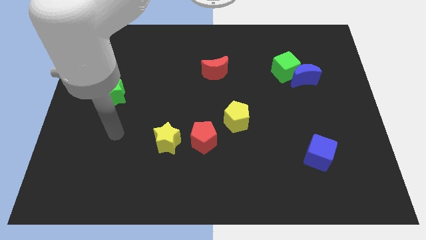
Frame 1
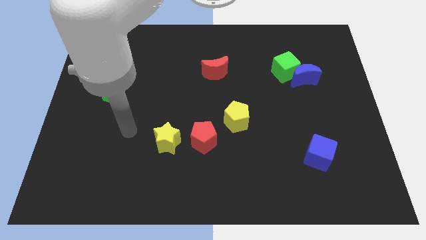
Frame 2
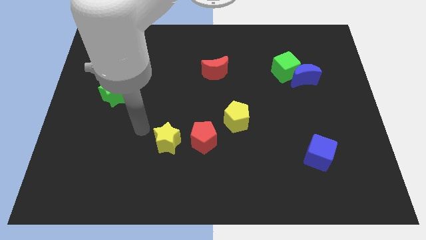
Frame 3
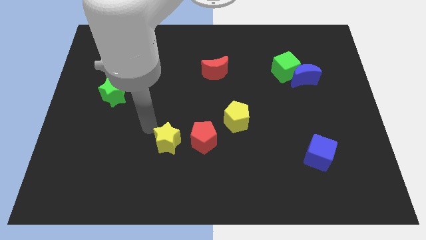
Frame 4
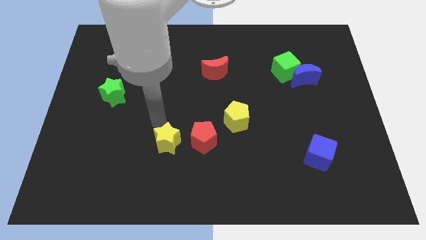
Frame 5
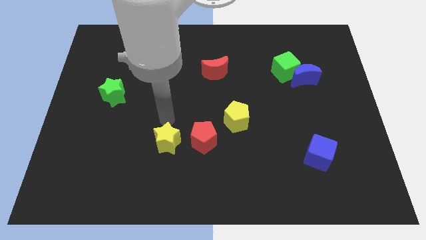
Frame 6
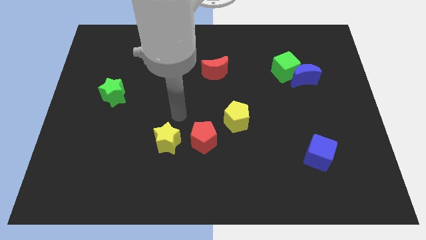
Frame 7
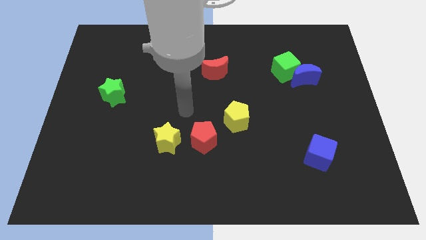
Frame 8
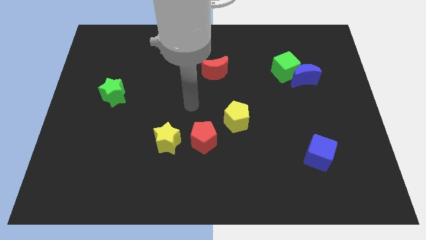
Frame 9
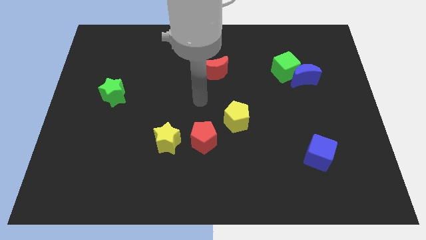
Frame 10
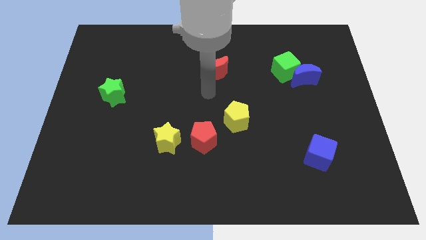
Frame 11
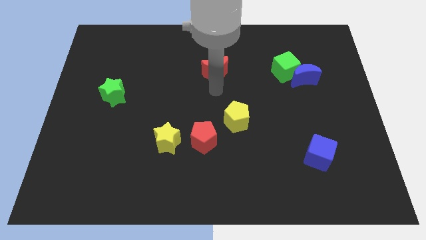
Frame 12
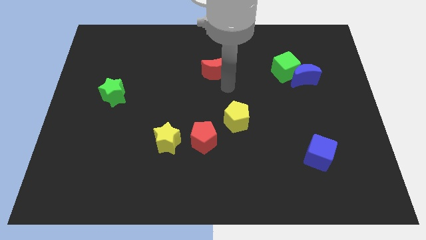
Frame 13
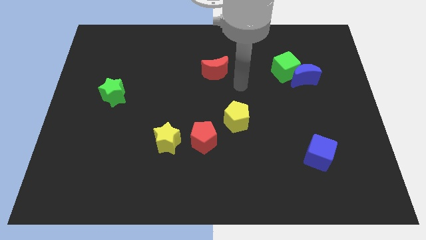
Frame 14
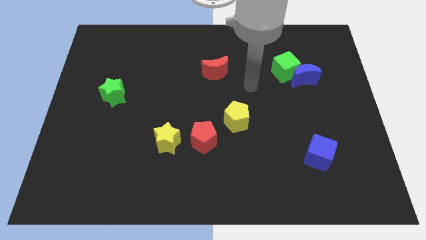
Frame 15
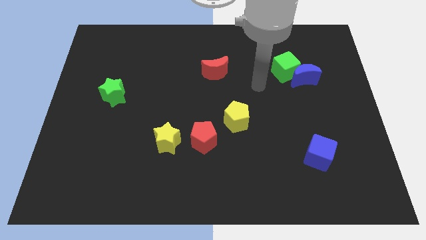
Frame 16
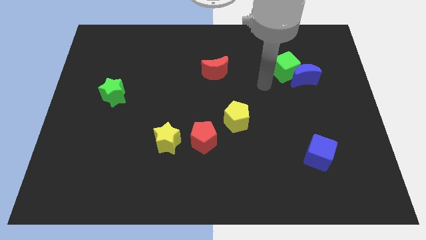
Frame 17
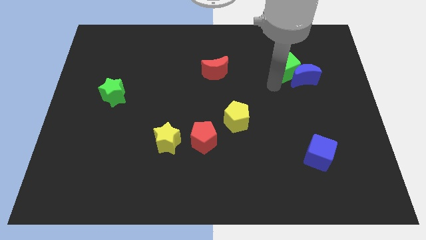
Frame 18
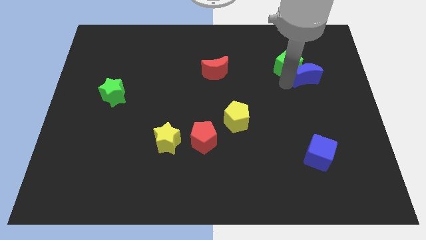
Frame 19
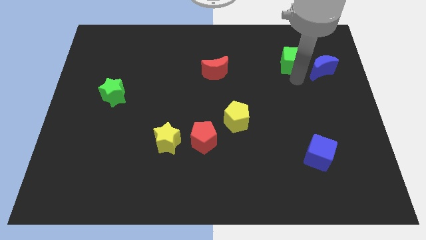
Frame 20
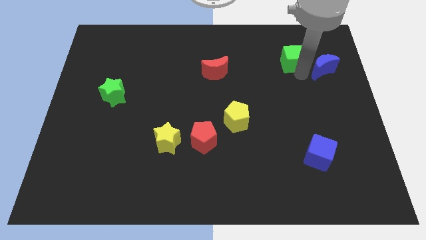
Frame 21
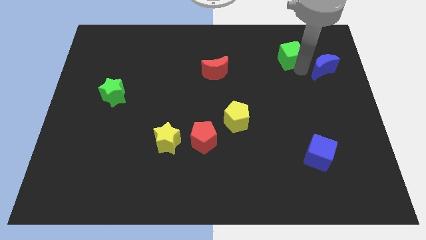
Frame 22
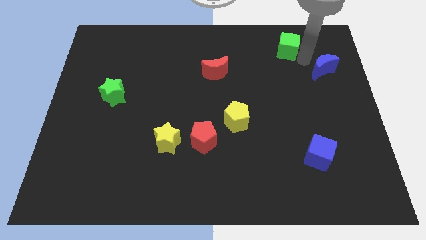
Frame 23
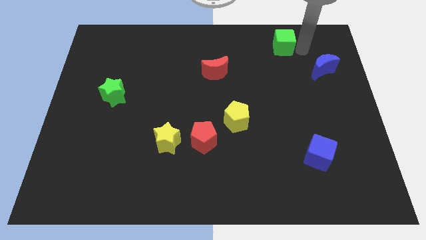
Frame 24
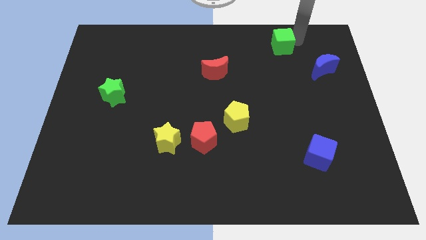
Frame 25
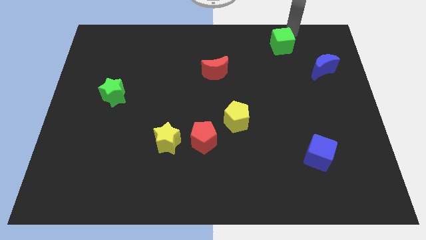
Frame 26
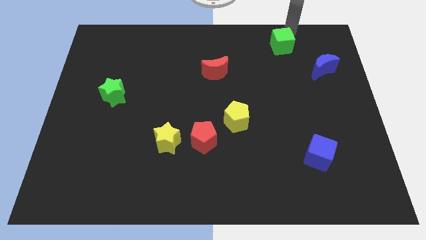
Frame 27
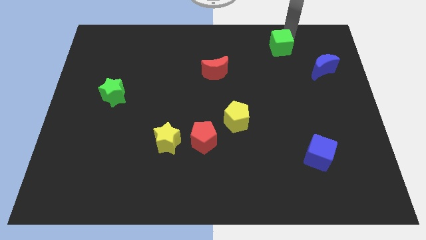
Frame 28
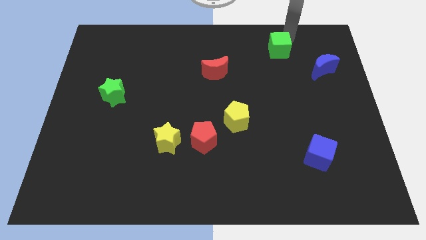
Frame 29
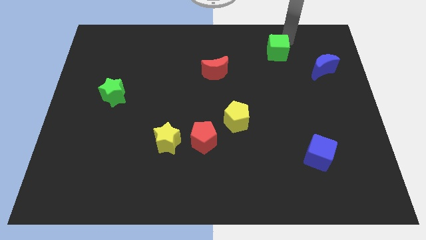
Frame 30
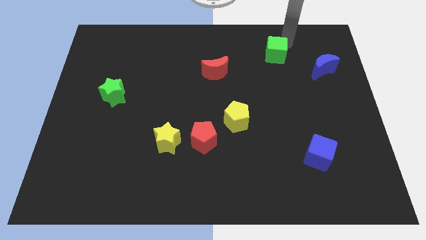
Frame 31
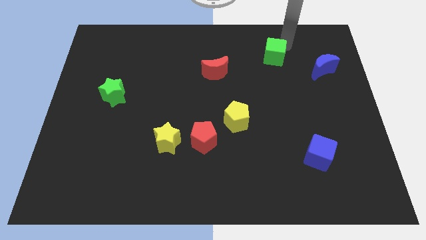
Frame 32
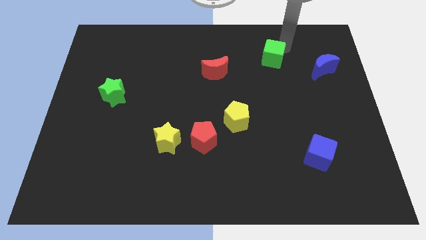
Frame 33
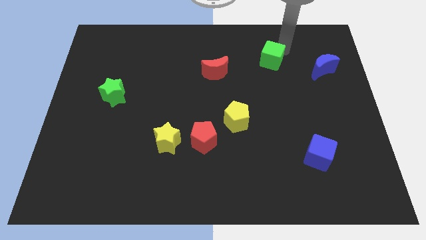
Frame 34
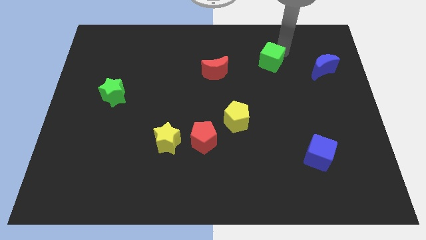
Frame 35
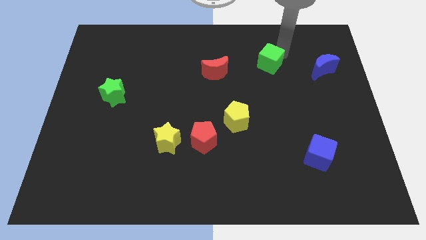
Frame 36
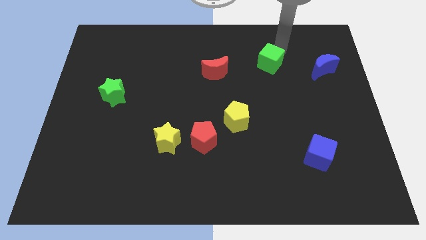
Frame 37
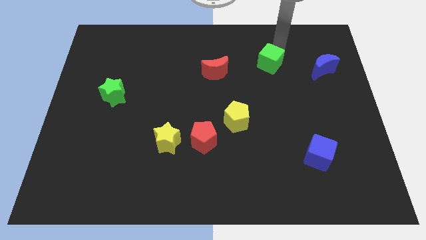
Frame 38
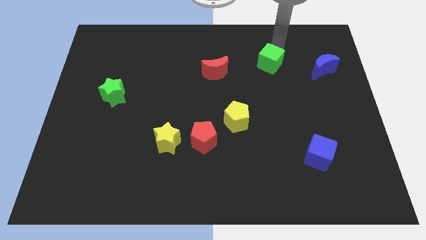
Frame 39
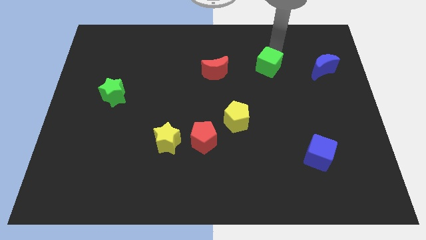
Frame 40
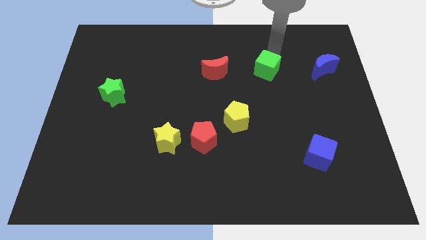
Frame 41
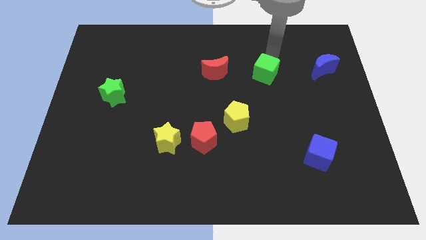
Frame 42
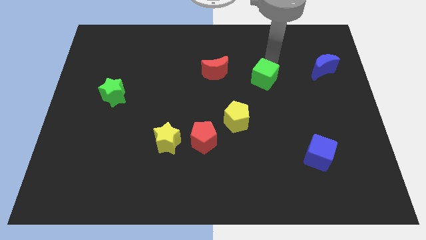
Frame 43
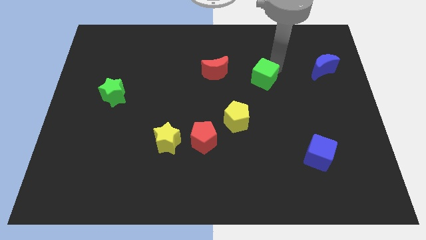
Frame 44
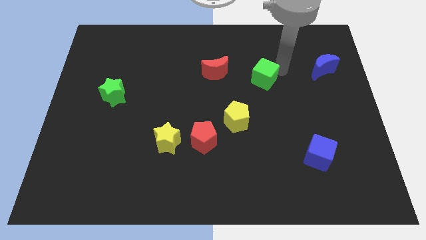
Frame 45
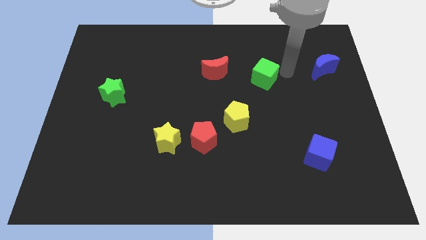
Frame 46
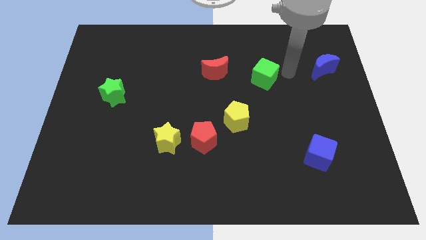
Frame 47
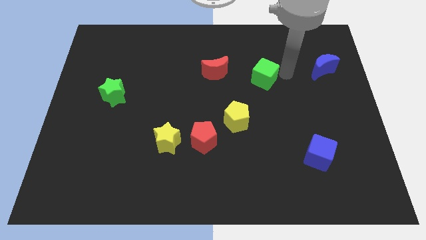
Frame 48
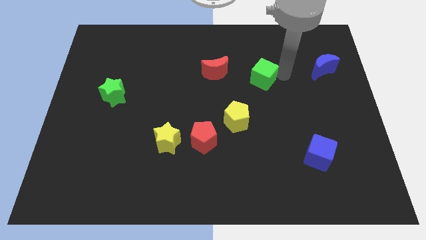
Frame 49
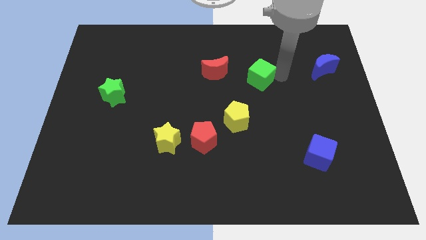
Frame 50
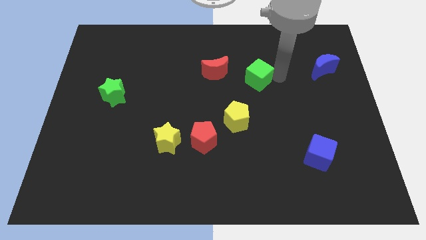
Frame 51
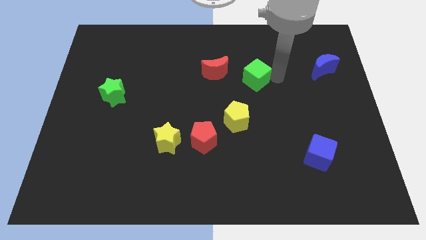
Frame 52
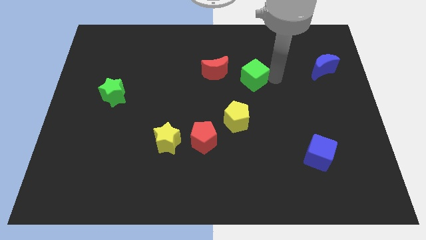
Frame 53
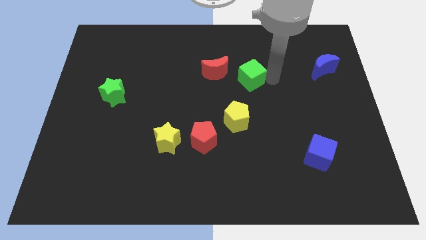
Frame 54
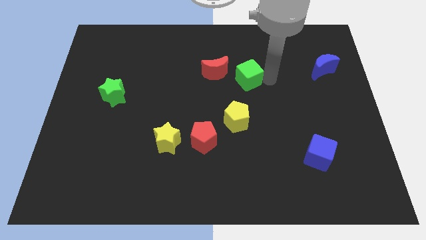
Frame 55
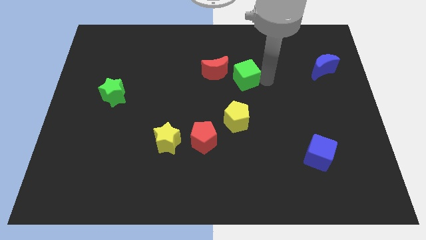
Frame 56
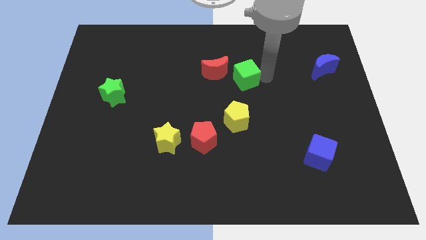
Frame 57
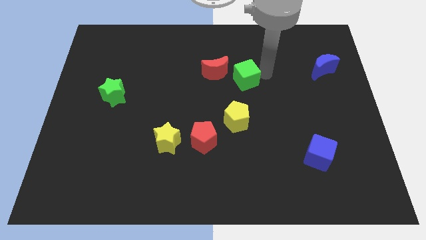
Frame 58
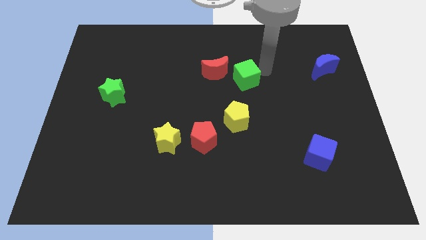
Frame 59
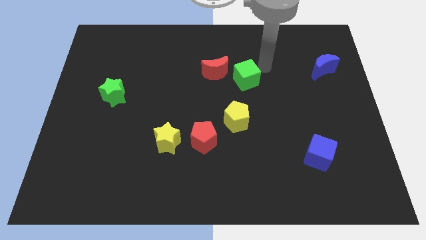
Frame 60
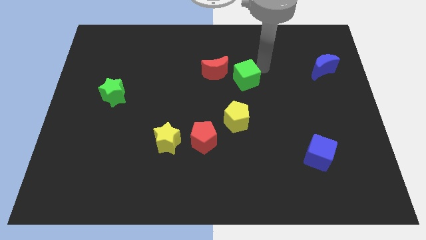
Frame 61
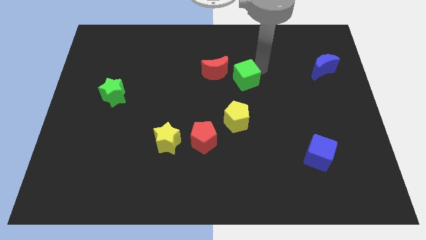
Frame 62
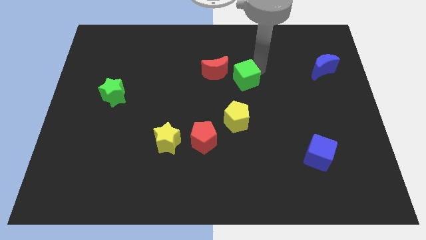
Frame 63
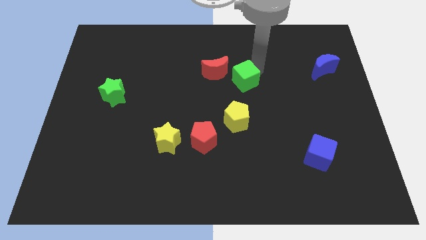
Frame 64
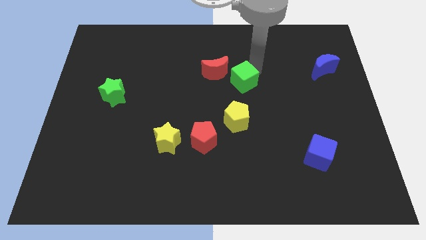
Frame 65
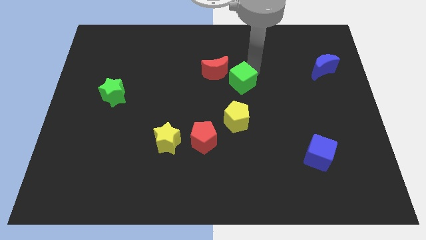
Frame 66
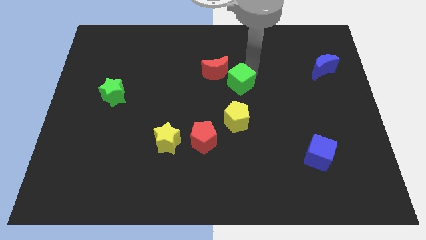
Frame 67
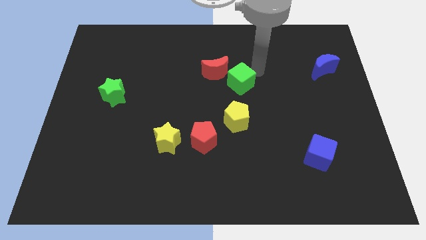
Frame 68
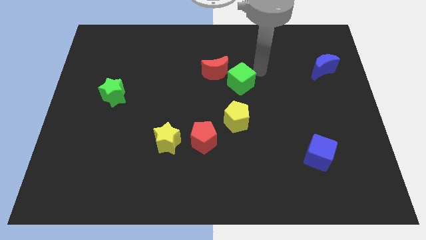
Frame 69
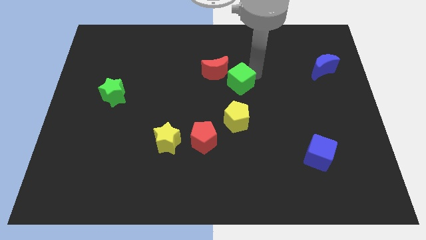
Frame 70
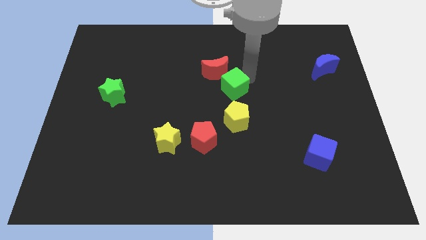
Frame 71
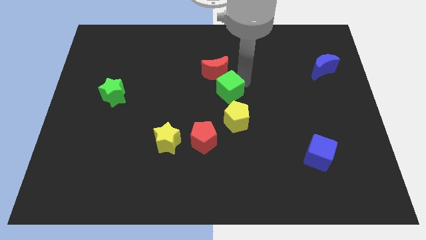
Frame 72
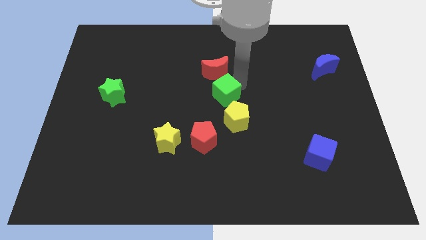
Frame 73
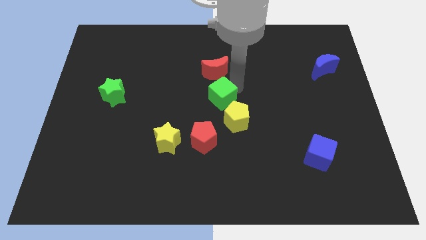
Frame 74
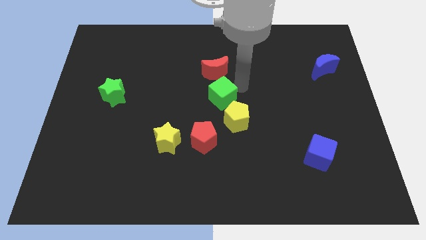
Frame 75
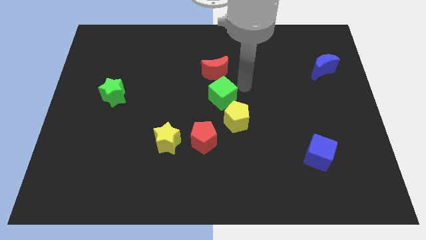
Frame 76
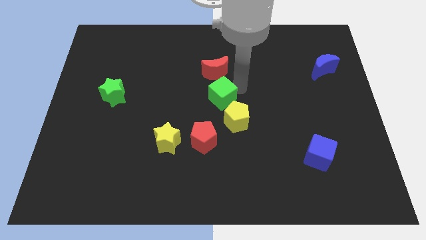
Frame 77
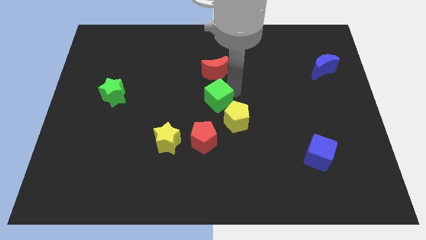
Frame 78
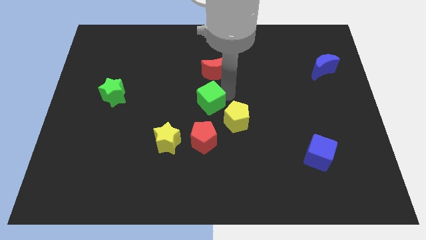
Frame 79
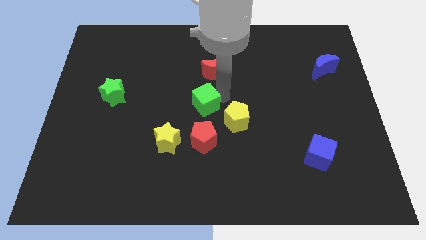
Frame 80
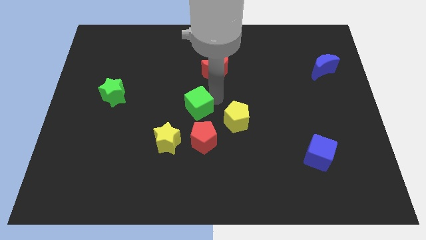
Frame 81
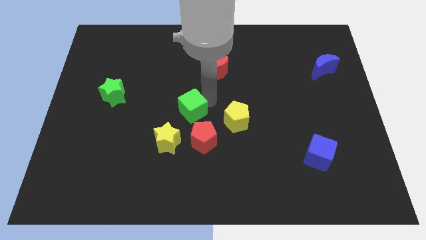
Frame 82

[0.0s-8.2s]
slide the green cube to the top left side of the red pentagon
